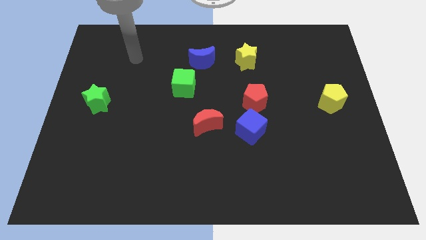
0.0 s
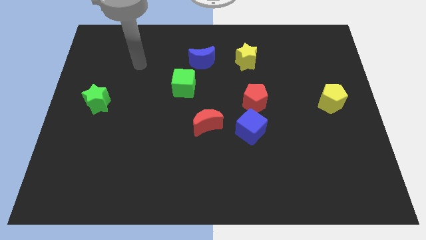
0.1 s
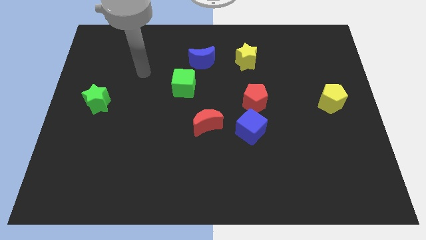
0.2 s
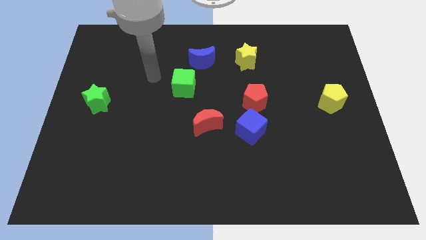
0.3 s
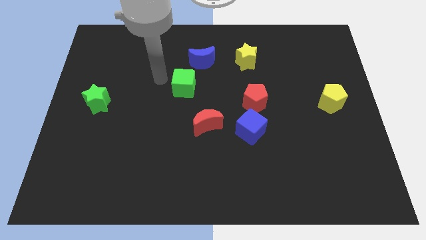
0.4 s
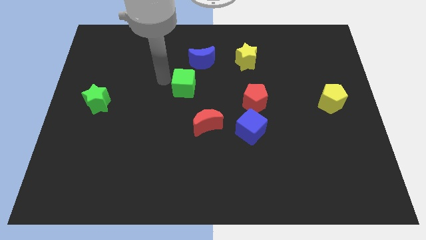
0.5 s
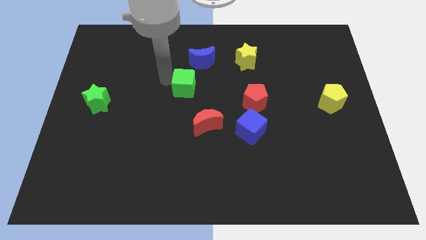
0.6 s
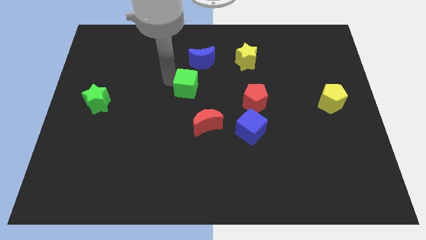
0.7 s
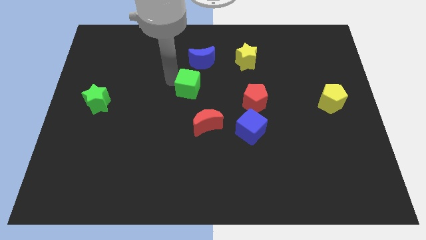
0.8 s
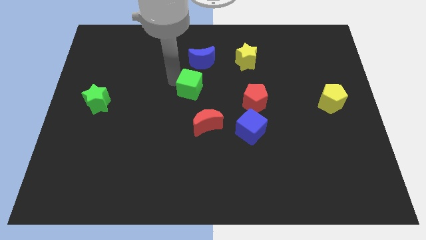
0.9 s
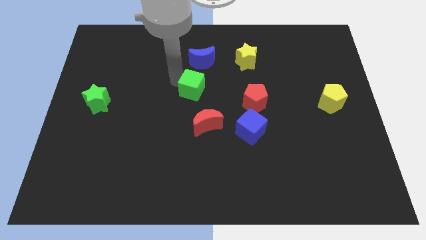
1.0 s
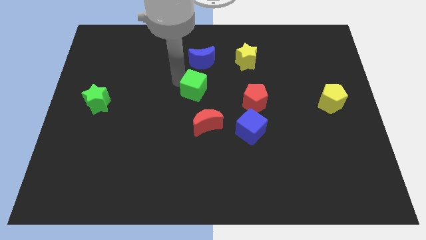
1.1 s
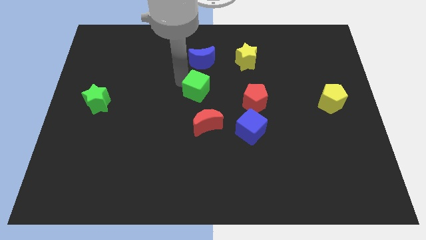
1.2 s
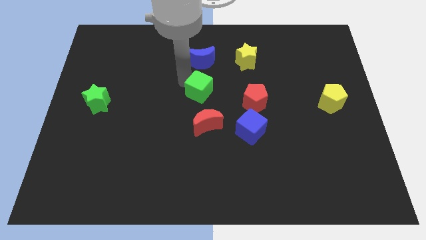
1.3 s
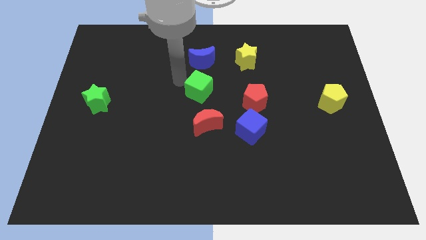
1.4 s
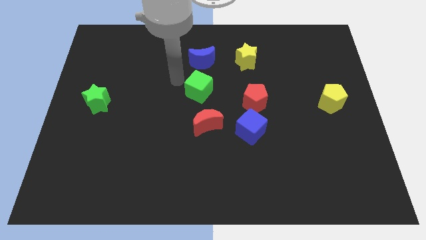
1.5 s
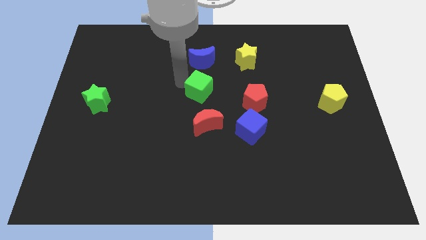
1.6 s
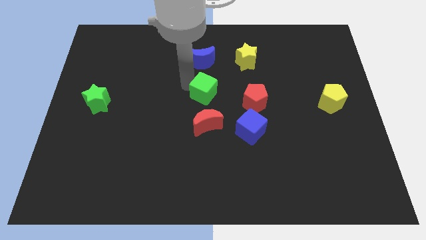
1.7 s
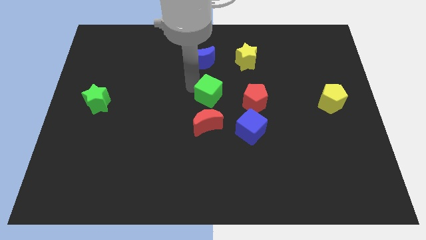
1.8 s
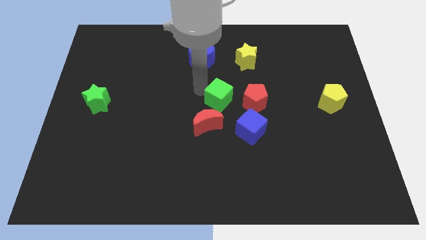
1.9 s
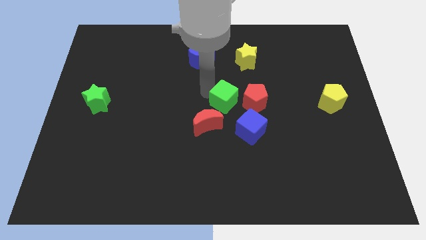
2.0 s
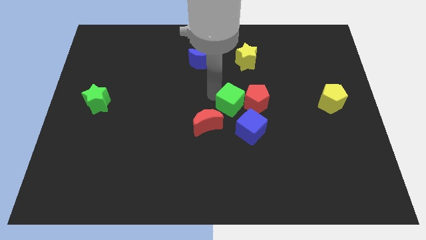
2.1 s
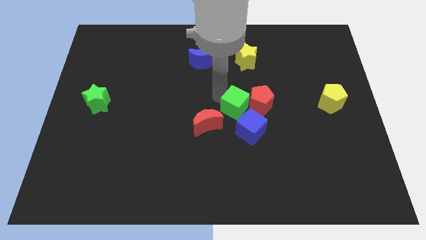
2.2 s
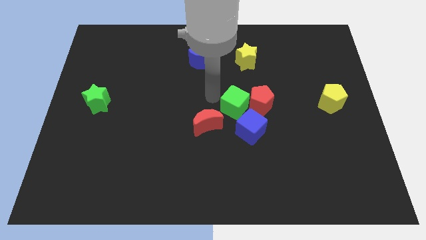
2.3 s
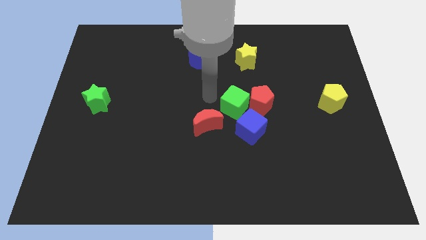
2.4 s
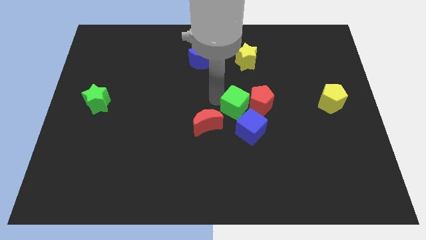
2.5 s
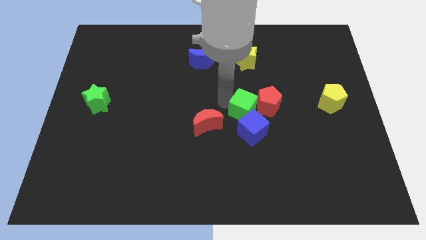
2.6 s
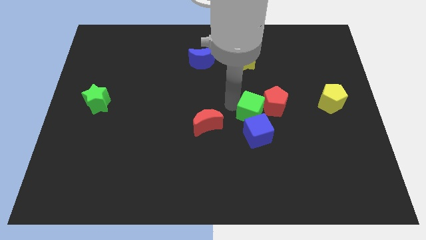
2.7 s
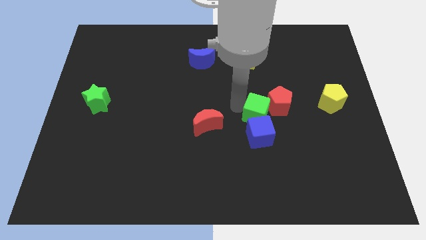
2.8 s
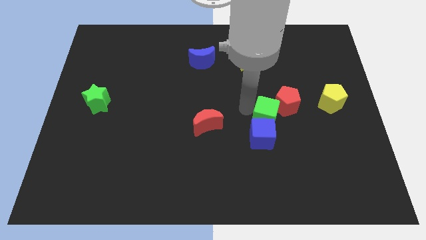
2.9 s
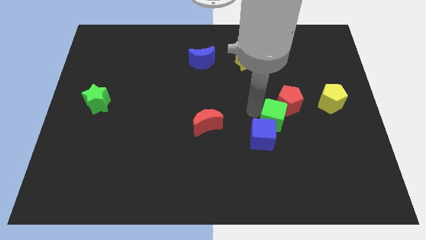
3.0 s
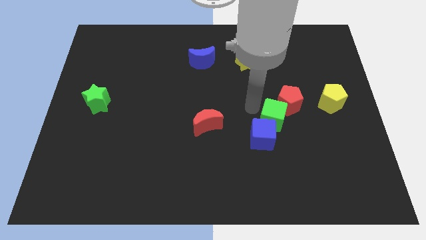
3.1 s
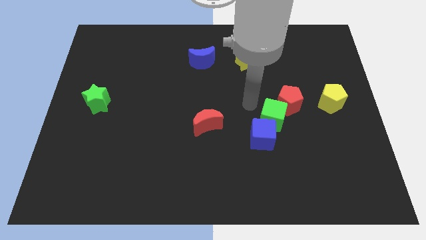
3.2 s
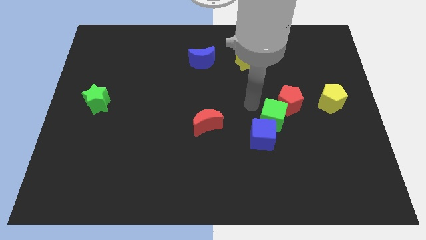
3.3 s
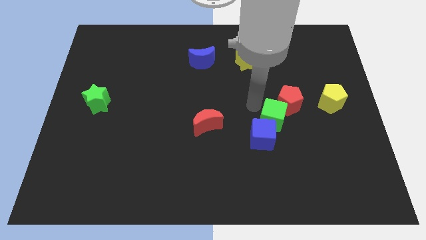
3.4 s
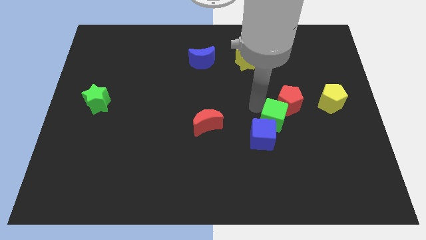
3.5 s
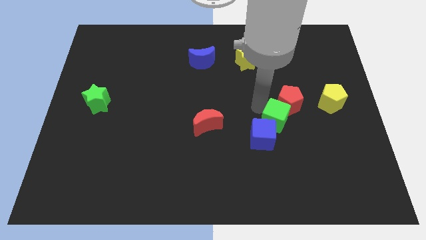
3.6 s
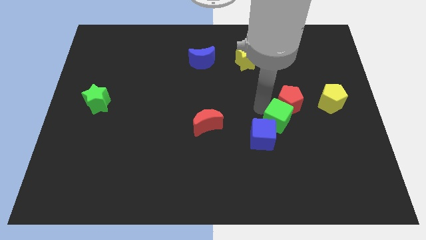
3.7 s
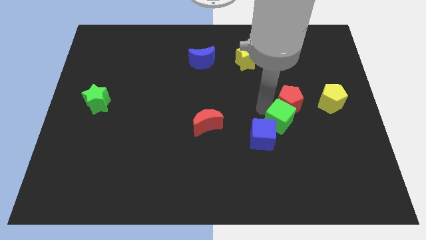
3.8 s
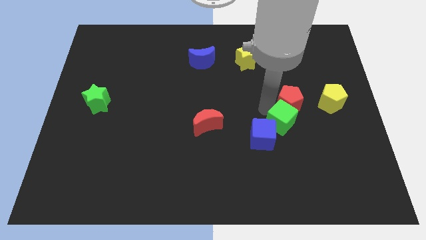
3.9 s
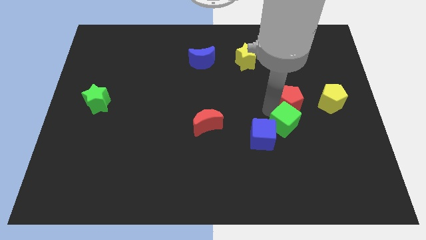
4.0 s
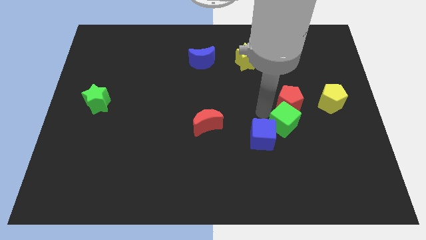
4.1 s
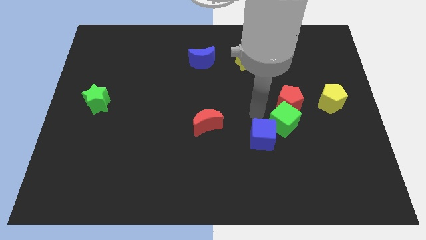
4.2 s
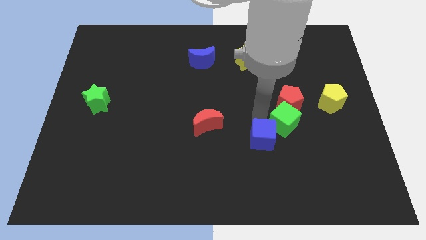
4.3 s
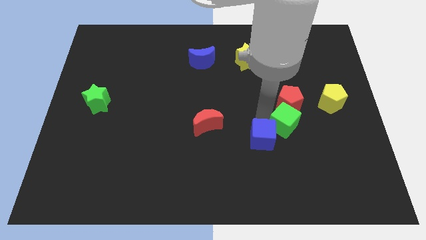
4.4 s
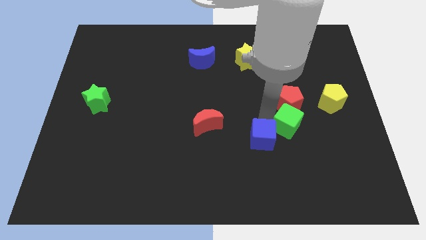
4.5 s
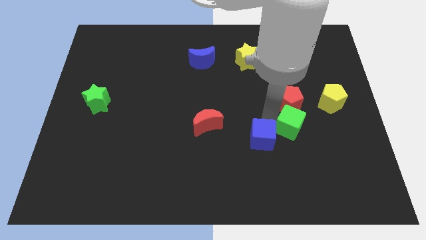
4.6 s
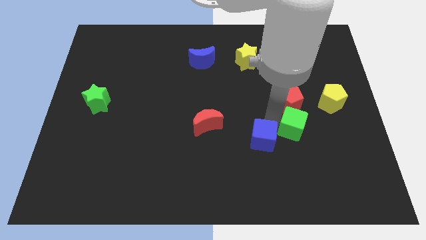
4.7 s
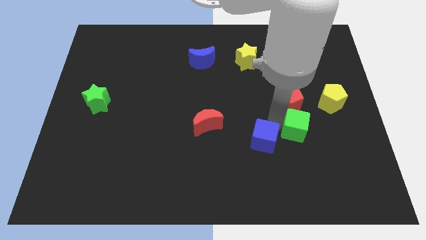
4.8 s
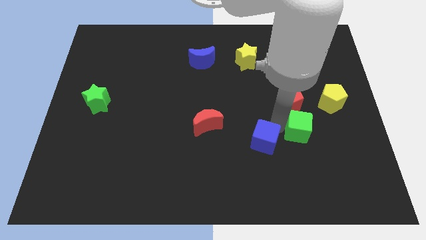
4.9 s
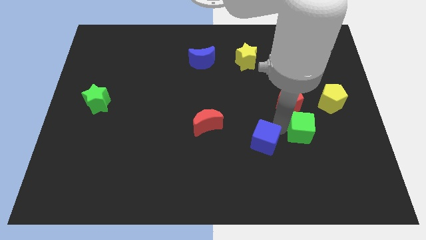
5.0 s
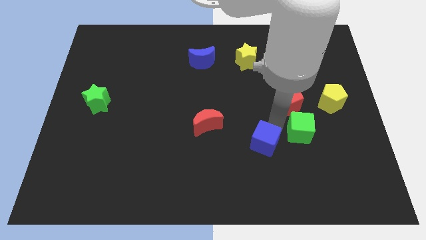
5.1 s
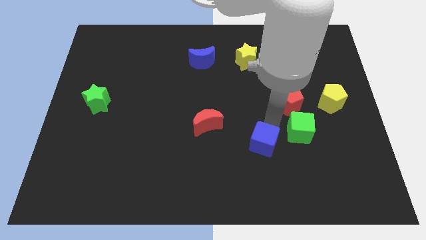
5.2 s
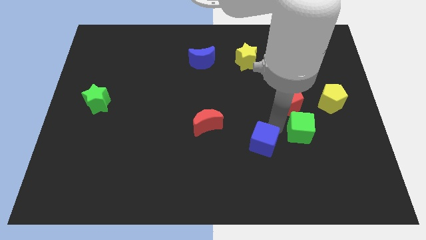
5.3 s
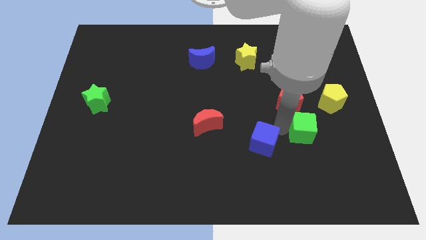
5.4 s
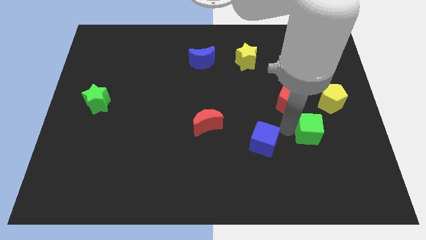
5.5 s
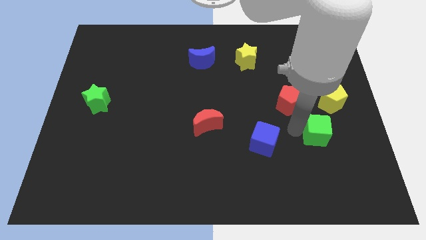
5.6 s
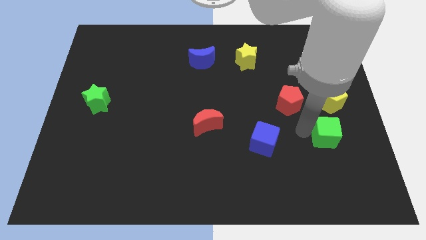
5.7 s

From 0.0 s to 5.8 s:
push the green cube to the bottom of the yellow pentagon

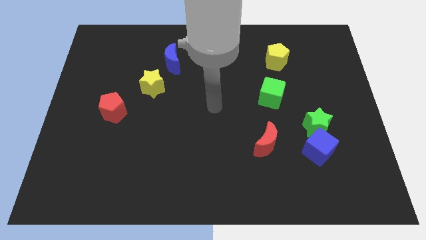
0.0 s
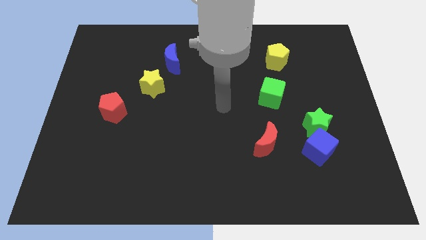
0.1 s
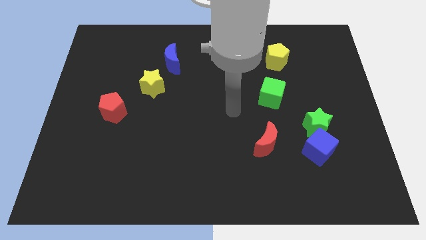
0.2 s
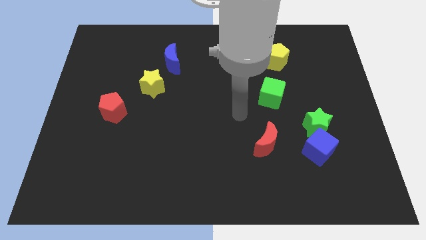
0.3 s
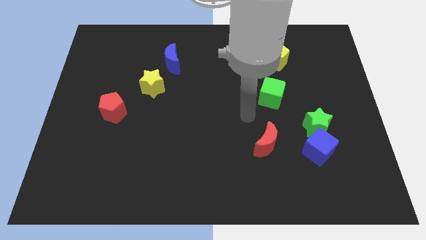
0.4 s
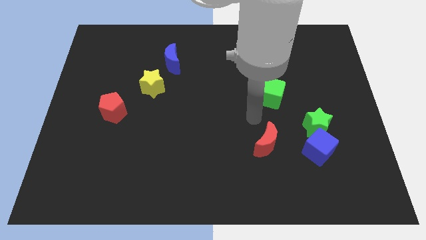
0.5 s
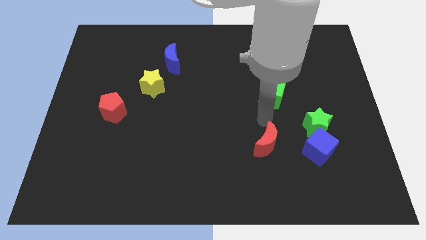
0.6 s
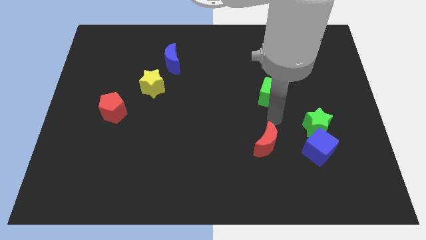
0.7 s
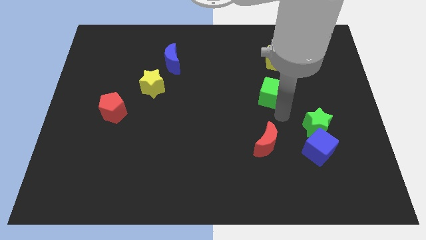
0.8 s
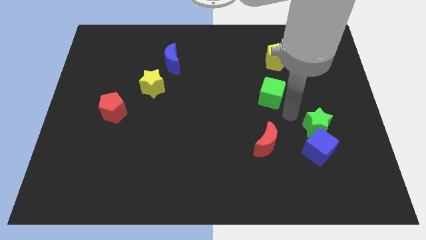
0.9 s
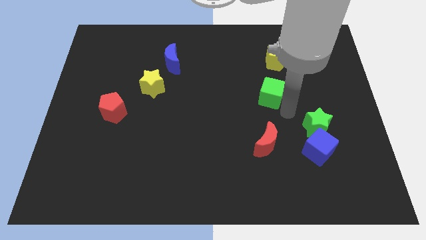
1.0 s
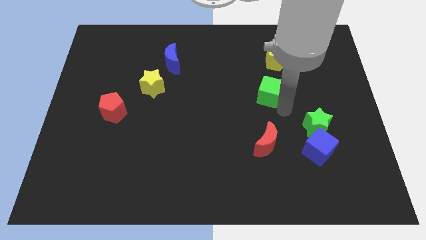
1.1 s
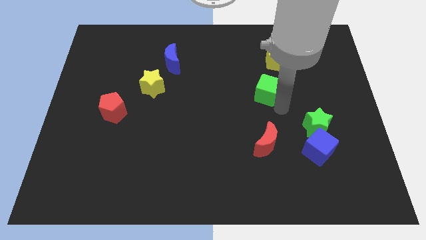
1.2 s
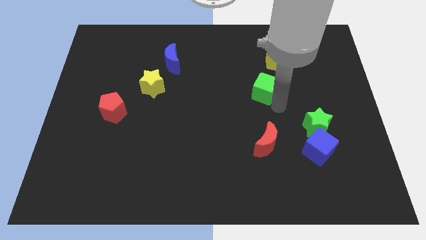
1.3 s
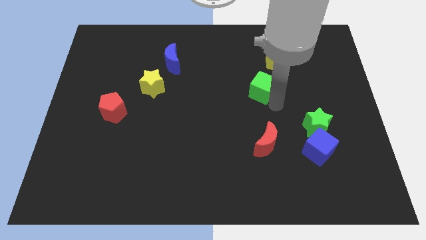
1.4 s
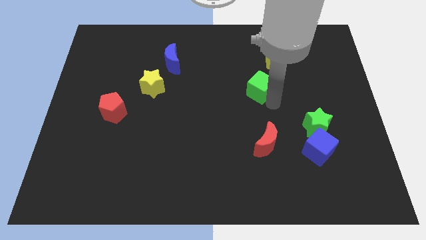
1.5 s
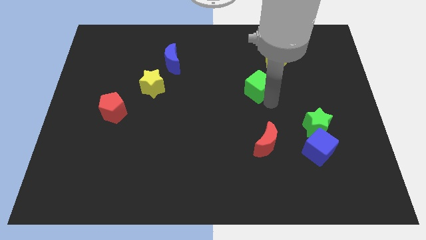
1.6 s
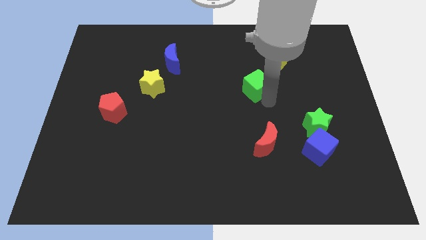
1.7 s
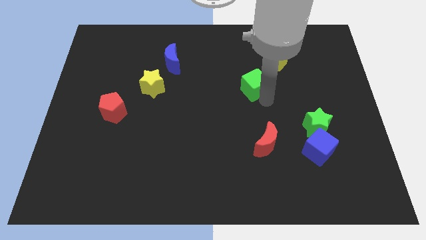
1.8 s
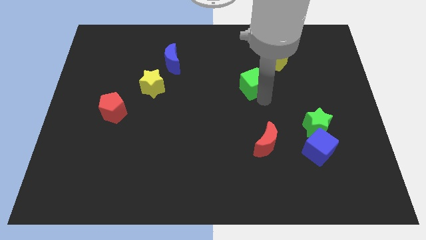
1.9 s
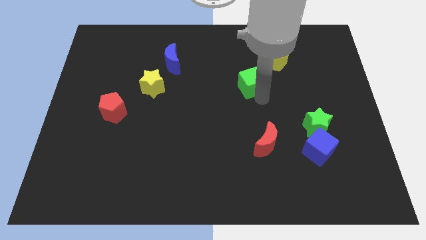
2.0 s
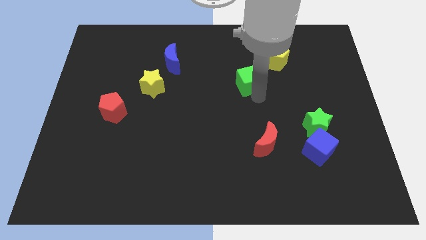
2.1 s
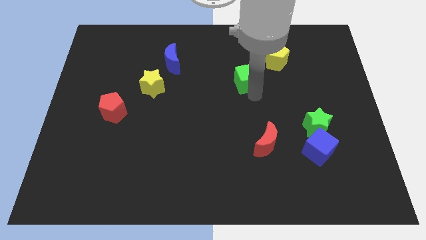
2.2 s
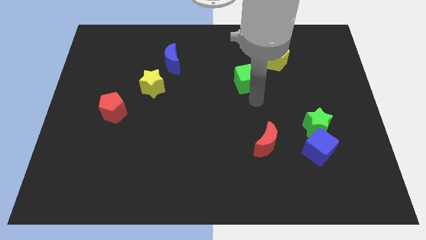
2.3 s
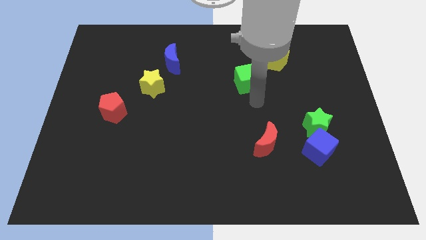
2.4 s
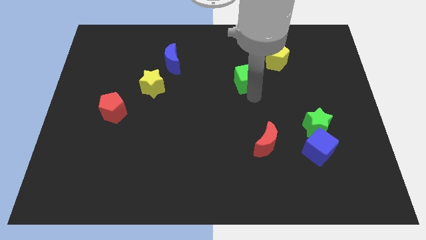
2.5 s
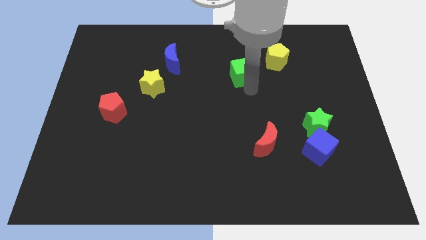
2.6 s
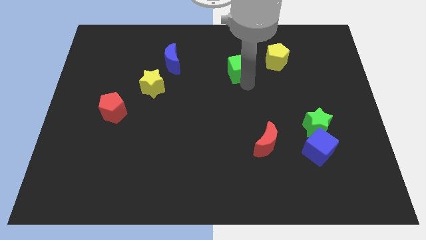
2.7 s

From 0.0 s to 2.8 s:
move the green cube to the left of the yellow pentagon
